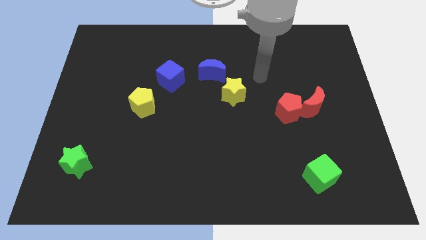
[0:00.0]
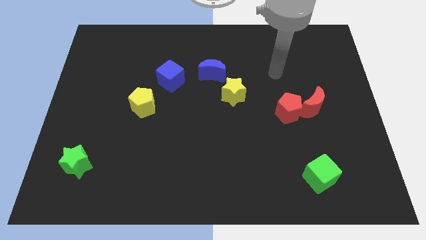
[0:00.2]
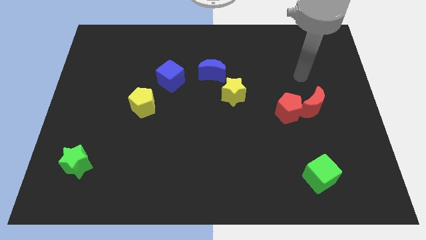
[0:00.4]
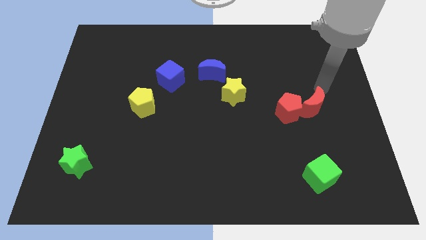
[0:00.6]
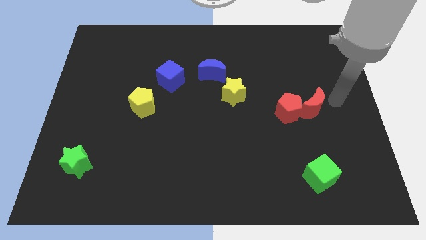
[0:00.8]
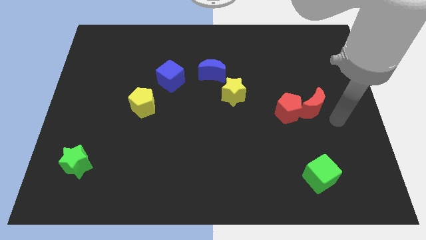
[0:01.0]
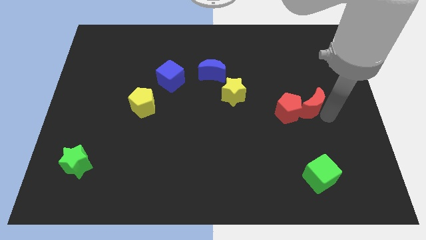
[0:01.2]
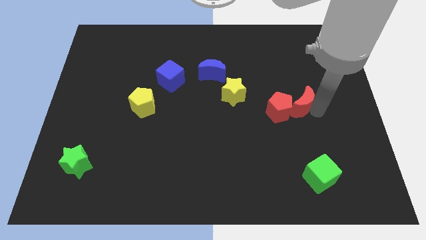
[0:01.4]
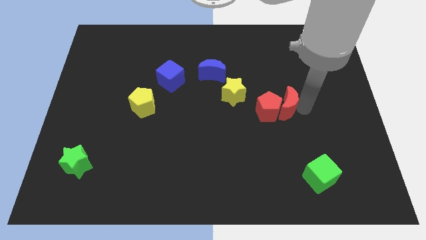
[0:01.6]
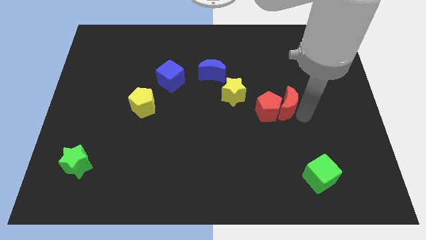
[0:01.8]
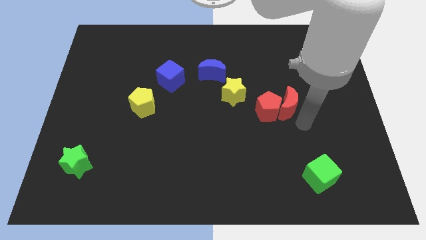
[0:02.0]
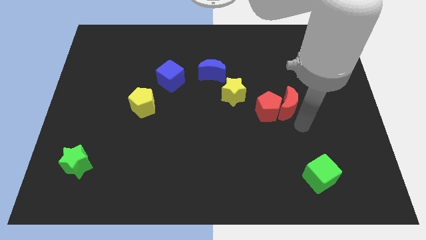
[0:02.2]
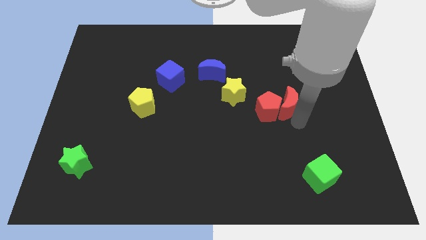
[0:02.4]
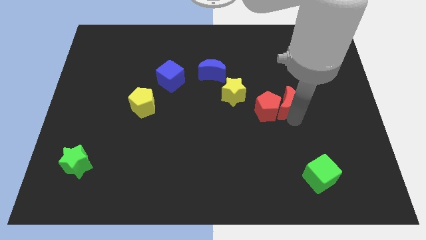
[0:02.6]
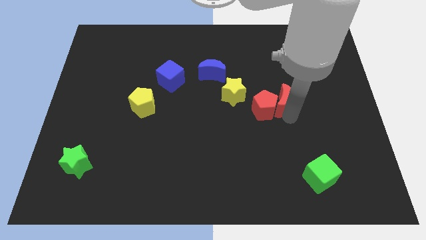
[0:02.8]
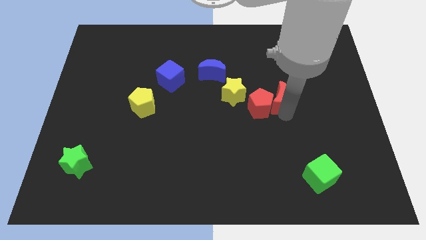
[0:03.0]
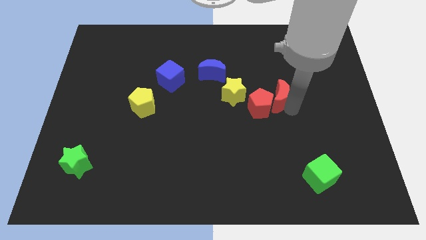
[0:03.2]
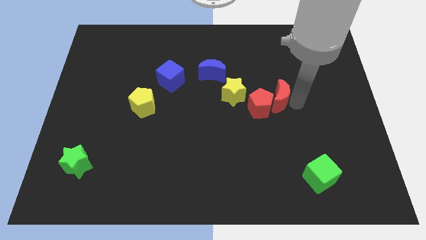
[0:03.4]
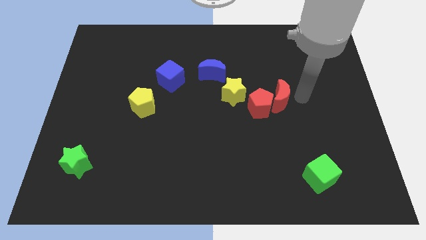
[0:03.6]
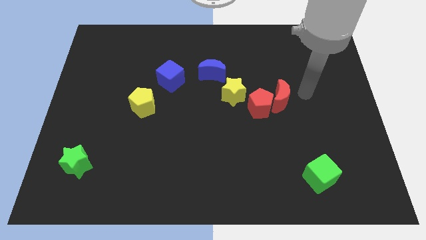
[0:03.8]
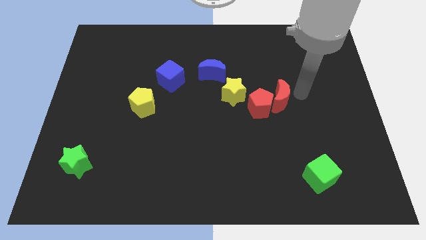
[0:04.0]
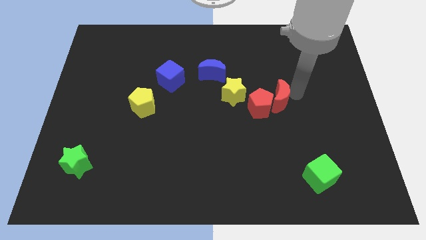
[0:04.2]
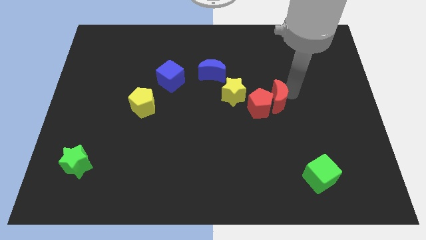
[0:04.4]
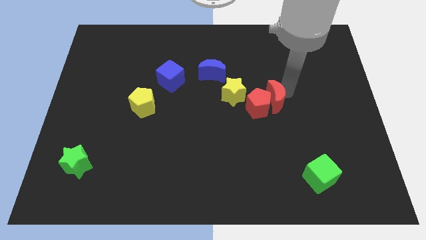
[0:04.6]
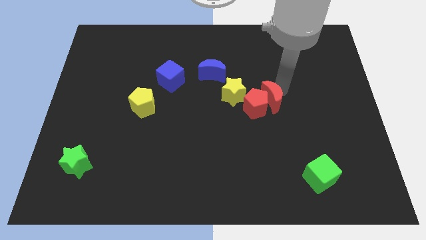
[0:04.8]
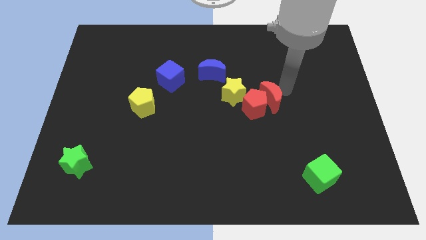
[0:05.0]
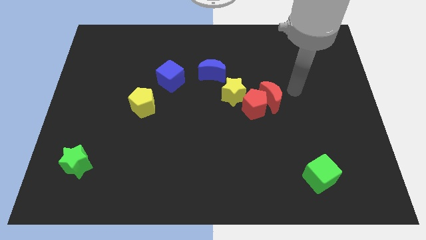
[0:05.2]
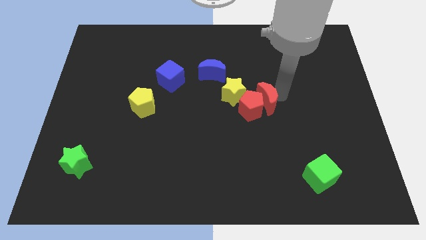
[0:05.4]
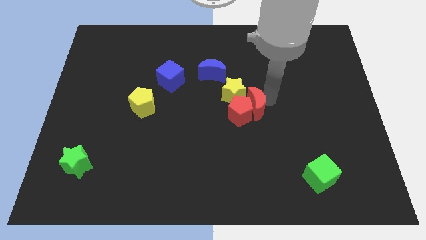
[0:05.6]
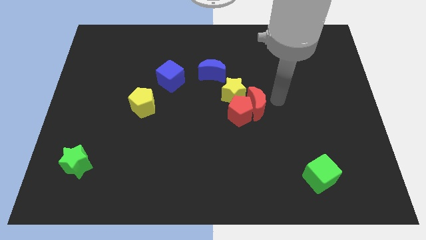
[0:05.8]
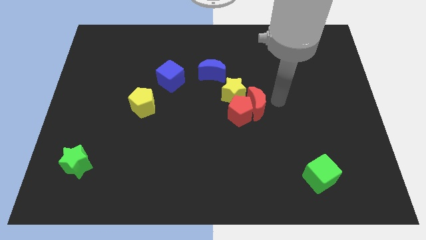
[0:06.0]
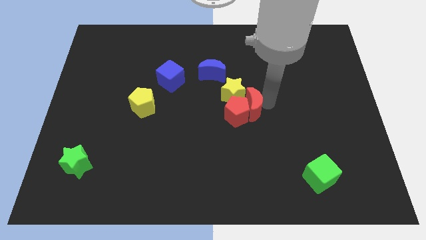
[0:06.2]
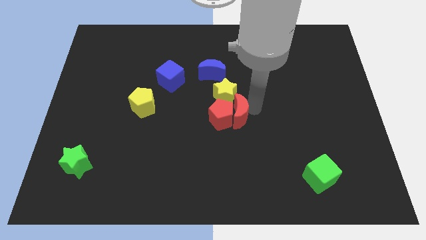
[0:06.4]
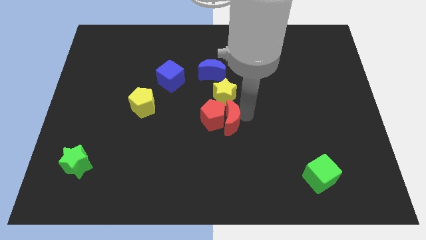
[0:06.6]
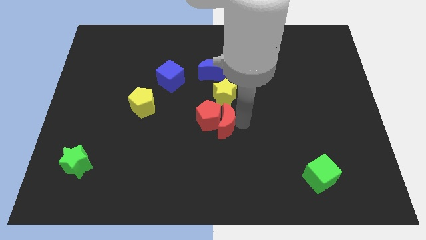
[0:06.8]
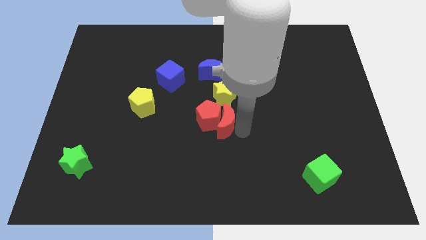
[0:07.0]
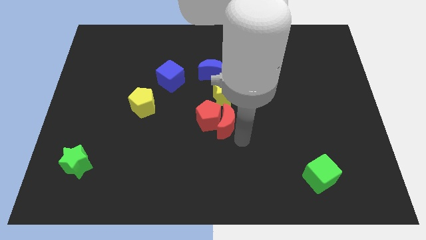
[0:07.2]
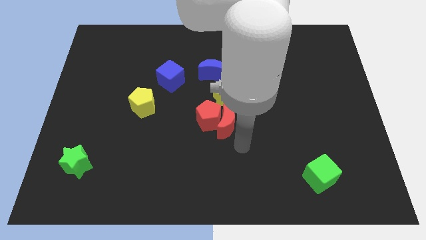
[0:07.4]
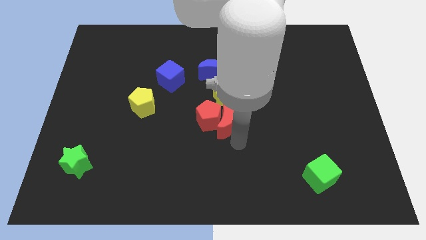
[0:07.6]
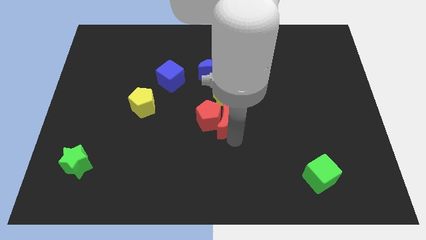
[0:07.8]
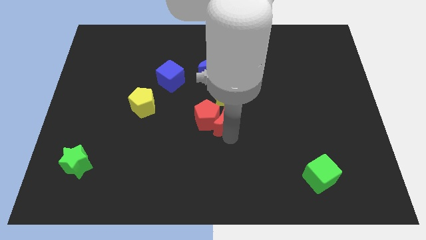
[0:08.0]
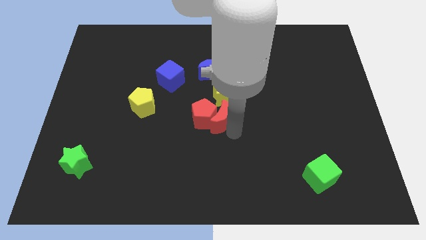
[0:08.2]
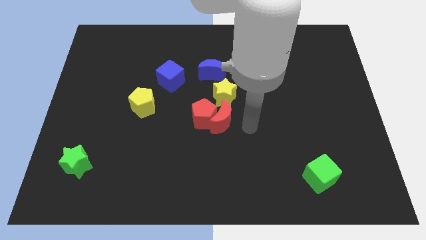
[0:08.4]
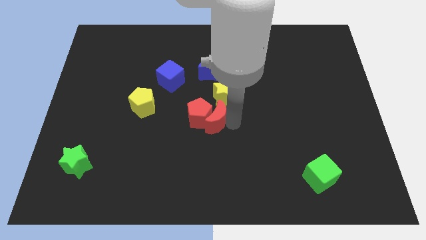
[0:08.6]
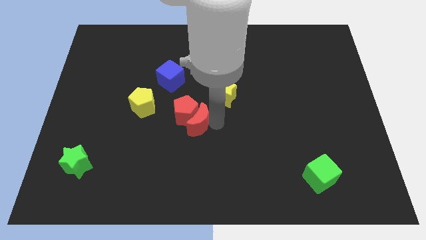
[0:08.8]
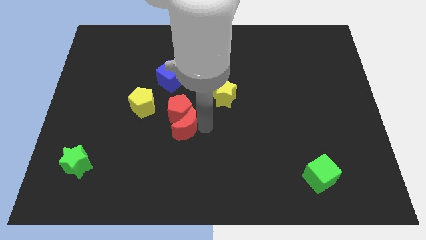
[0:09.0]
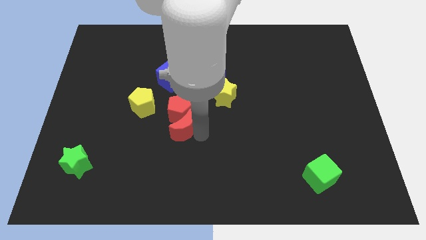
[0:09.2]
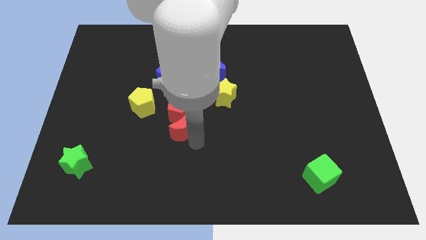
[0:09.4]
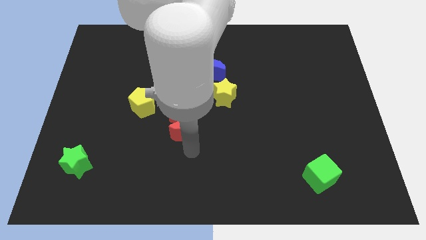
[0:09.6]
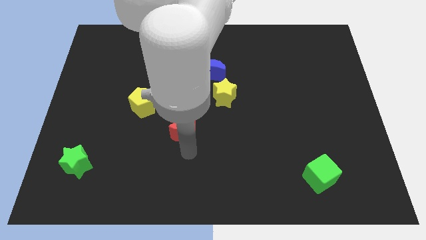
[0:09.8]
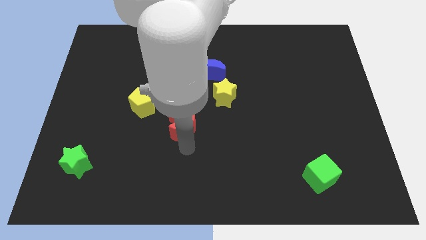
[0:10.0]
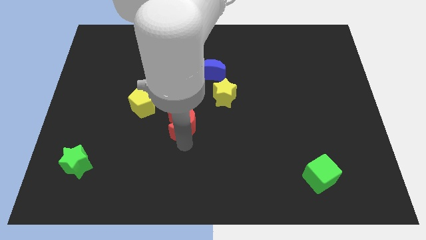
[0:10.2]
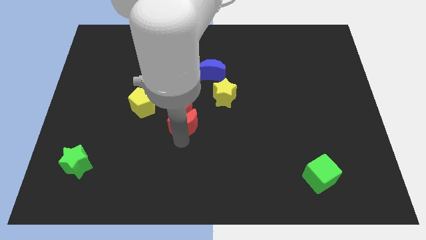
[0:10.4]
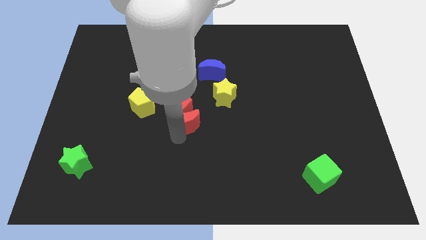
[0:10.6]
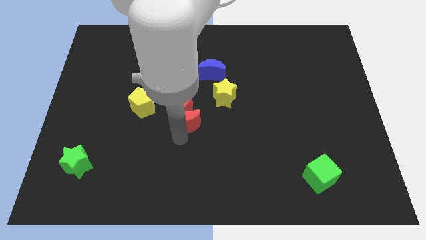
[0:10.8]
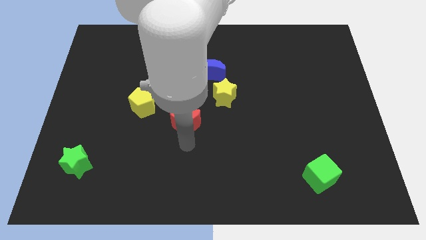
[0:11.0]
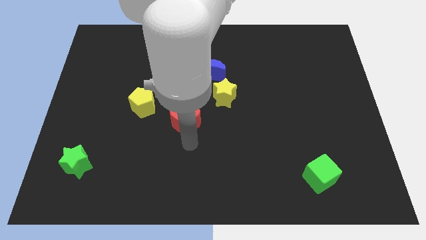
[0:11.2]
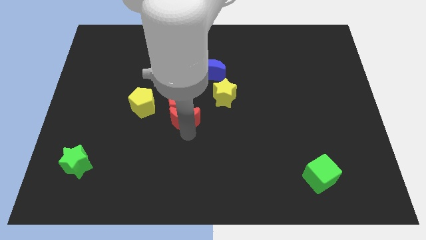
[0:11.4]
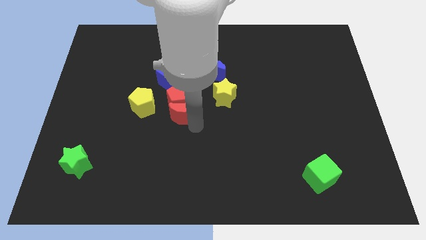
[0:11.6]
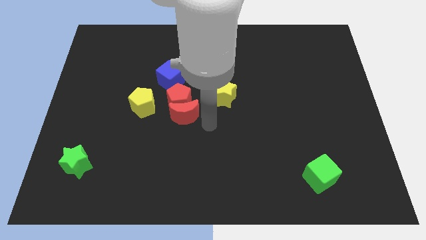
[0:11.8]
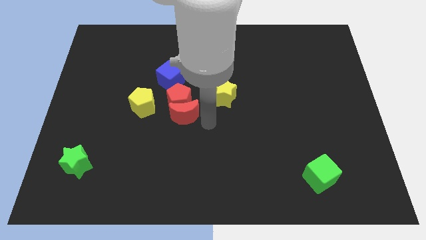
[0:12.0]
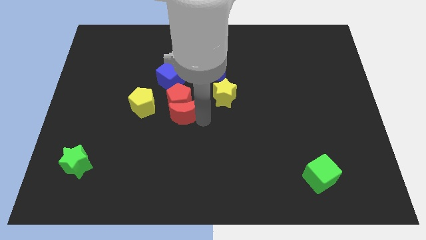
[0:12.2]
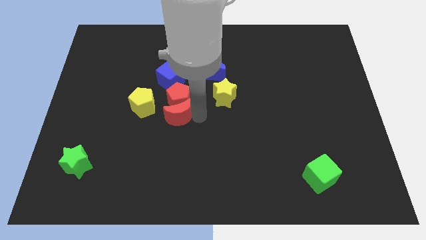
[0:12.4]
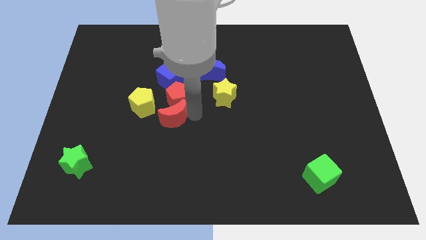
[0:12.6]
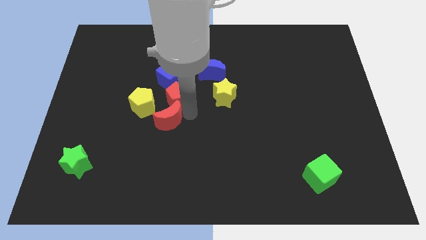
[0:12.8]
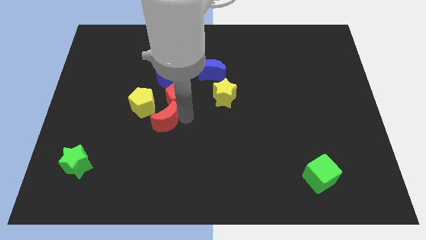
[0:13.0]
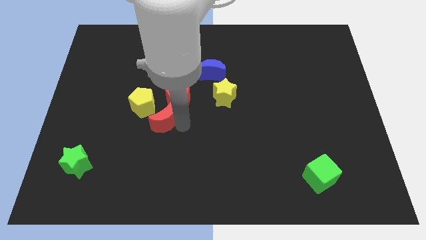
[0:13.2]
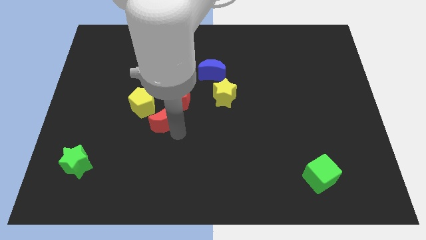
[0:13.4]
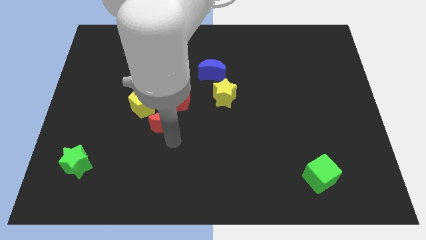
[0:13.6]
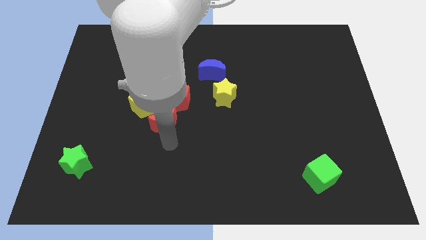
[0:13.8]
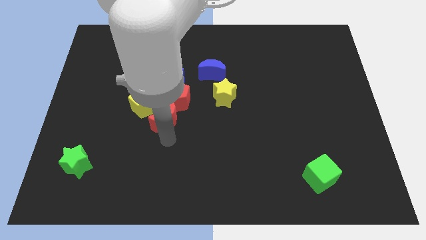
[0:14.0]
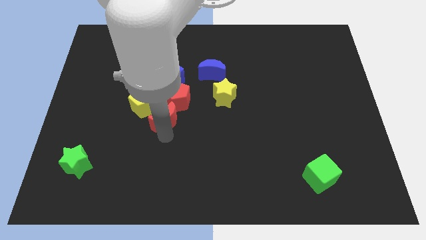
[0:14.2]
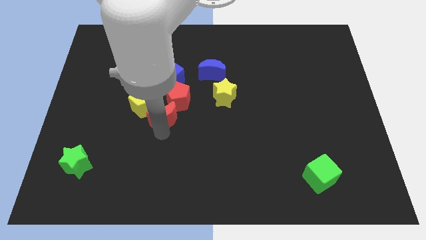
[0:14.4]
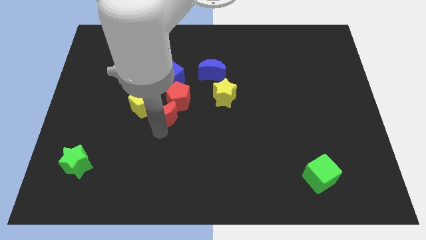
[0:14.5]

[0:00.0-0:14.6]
put the red moon next to the yellow pentagon
